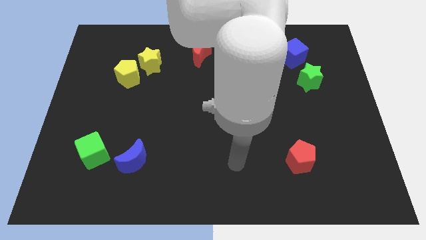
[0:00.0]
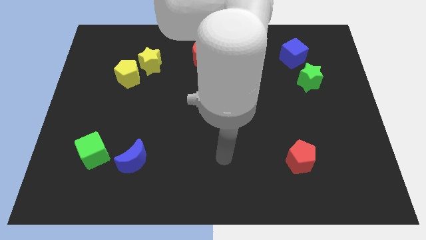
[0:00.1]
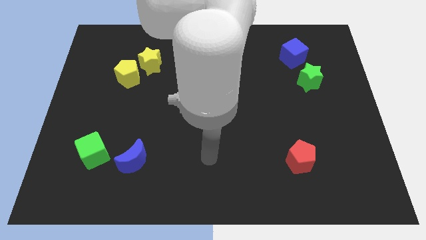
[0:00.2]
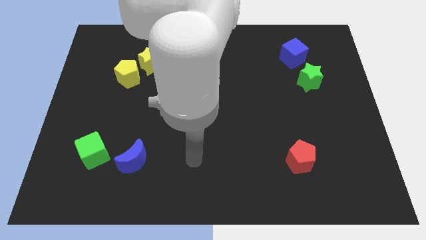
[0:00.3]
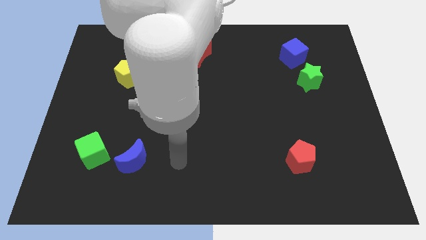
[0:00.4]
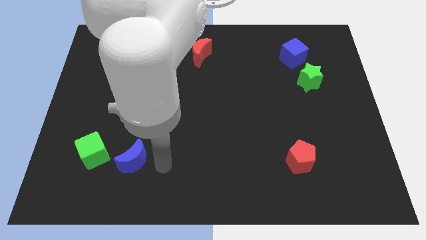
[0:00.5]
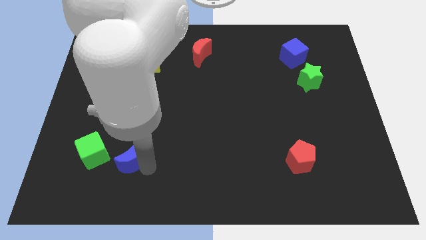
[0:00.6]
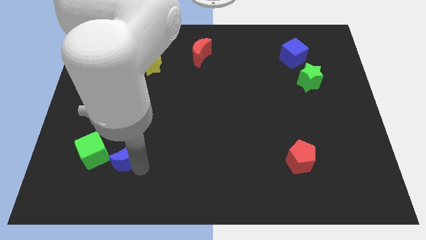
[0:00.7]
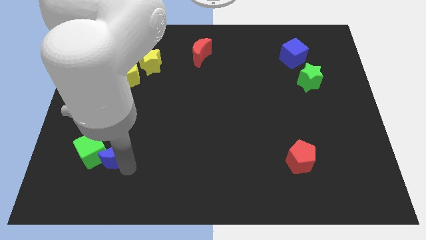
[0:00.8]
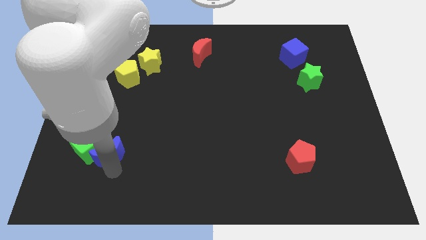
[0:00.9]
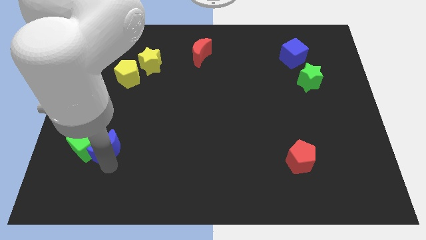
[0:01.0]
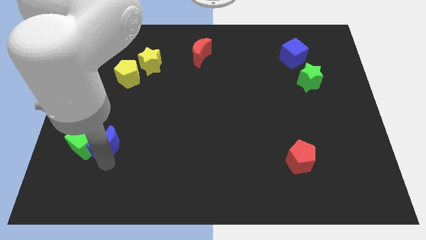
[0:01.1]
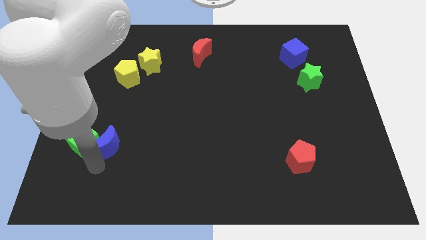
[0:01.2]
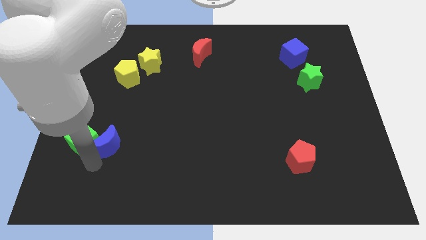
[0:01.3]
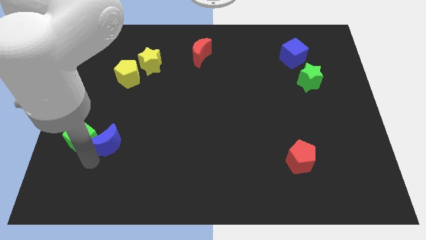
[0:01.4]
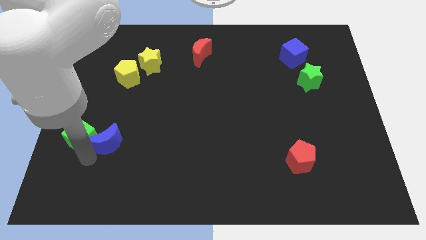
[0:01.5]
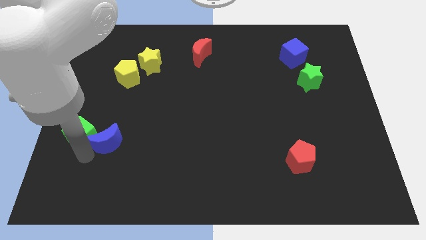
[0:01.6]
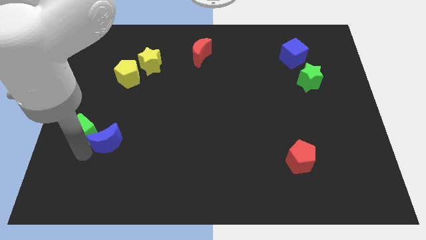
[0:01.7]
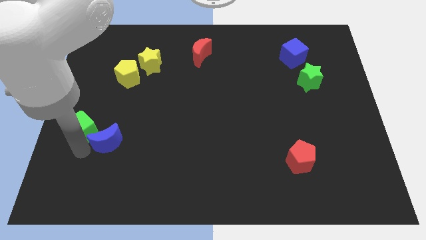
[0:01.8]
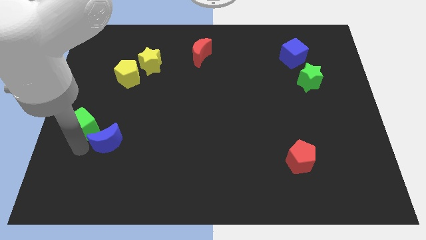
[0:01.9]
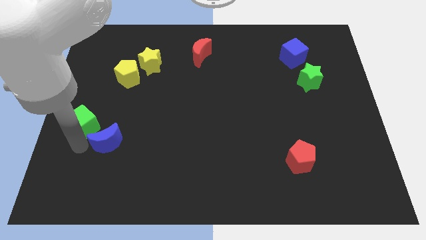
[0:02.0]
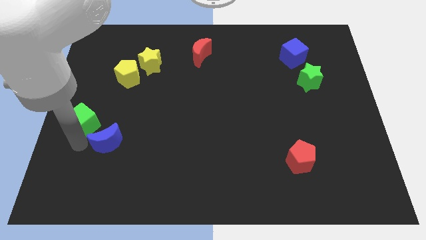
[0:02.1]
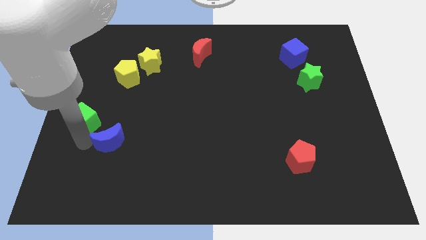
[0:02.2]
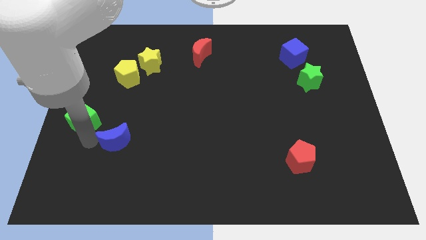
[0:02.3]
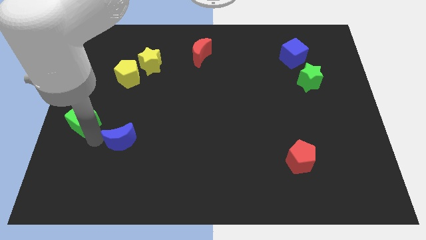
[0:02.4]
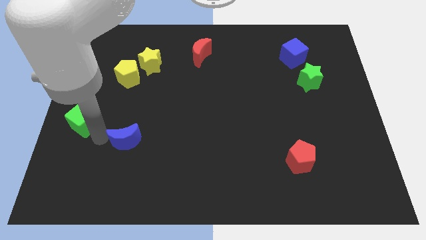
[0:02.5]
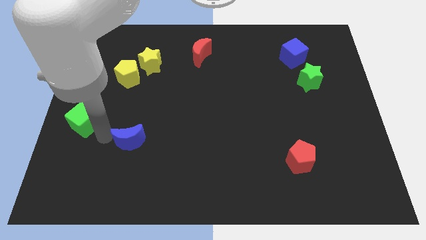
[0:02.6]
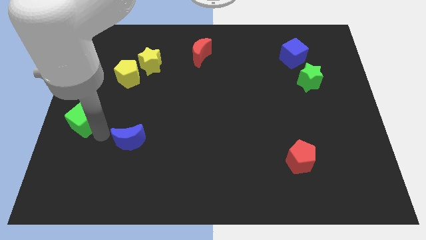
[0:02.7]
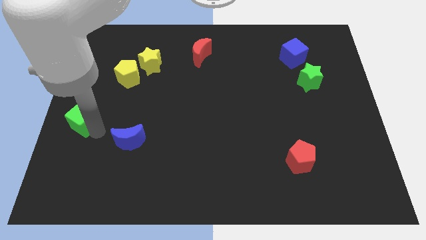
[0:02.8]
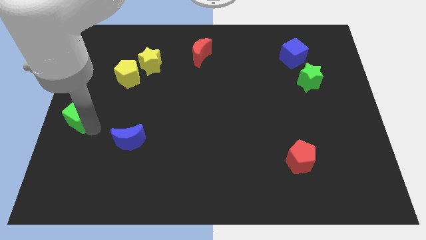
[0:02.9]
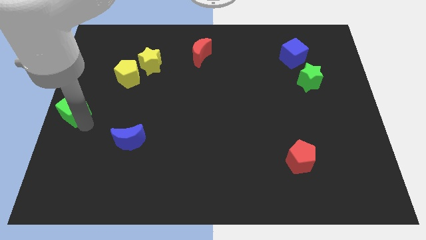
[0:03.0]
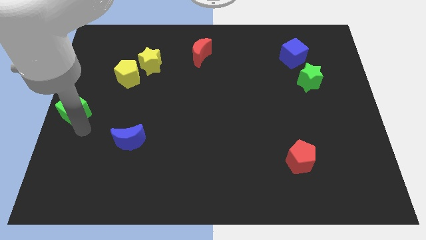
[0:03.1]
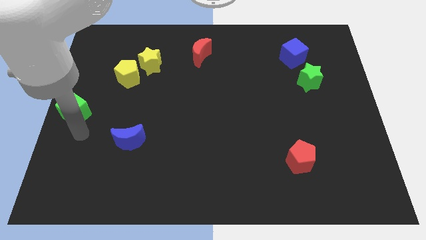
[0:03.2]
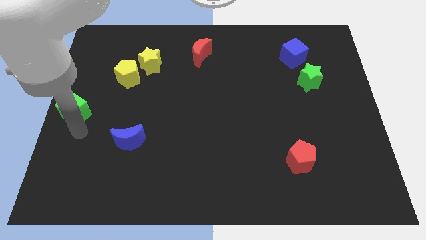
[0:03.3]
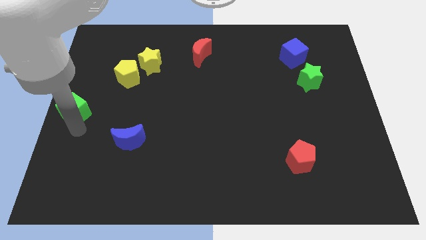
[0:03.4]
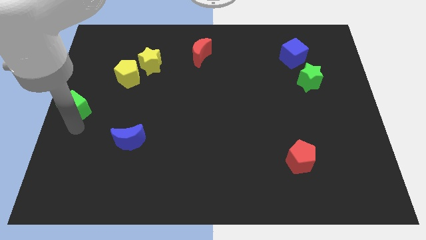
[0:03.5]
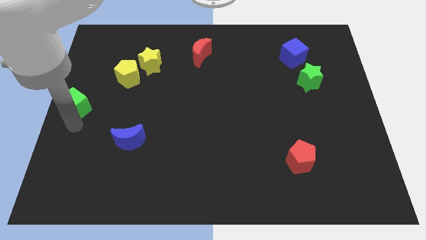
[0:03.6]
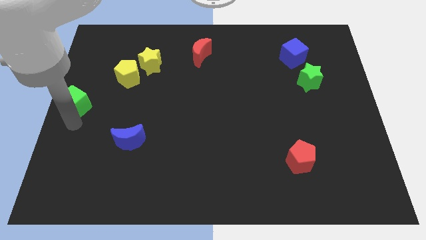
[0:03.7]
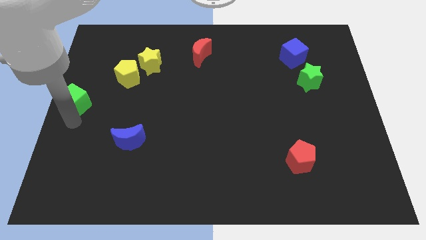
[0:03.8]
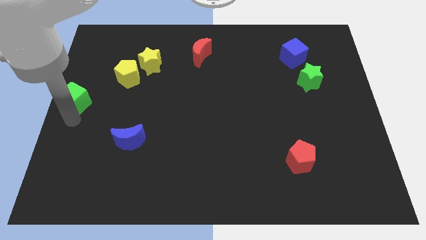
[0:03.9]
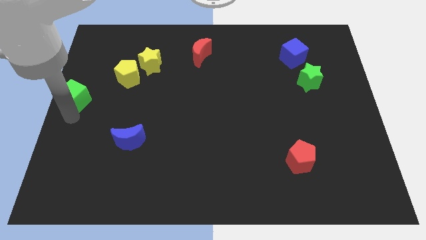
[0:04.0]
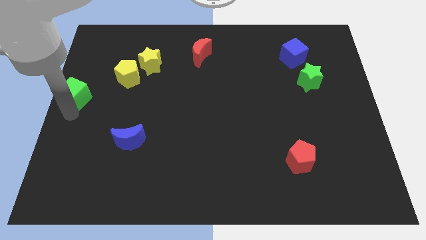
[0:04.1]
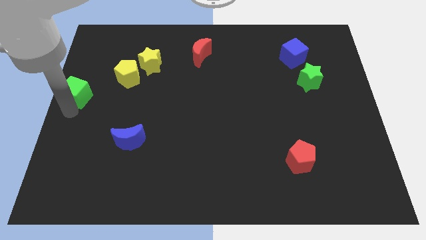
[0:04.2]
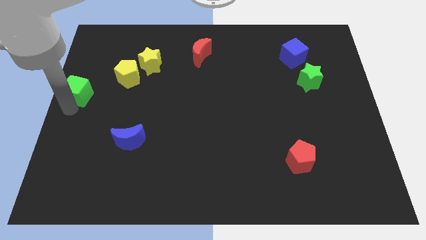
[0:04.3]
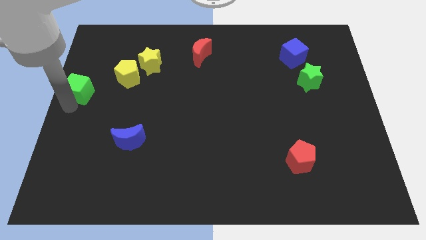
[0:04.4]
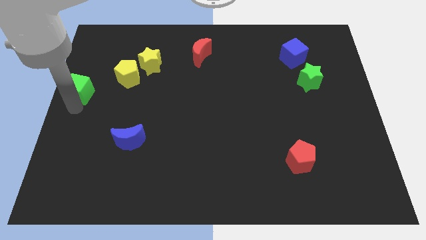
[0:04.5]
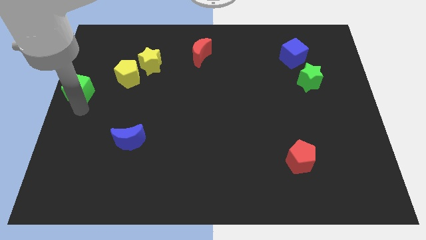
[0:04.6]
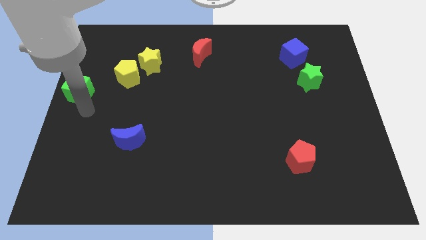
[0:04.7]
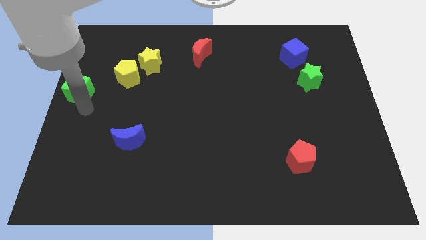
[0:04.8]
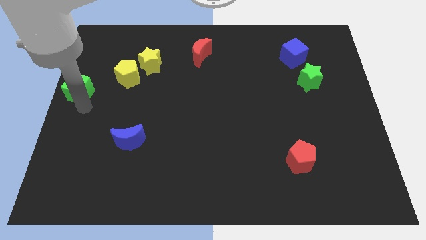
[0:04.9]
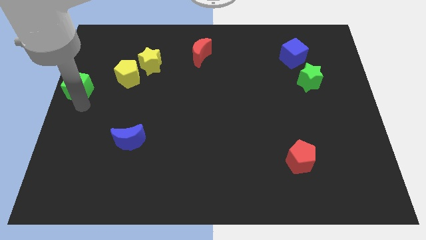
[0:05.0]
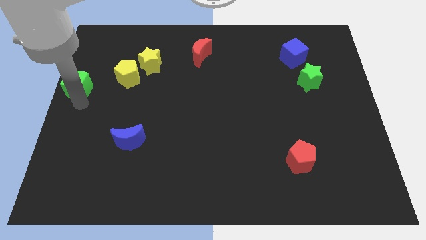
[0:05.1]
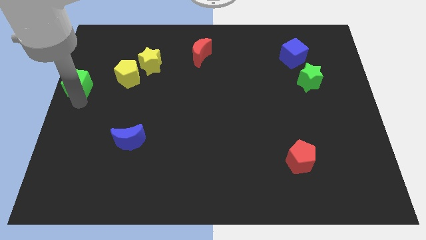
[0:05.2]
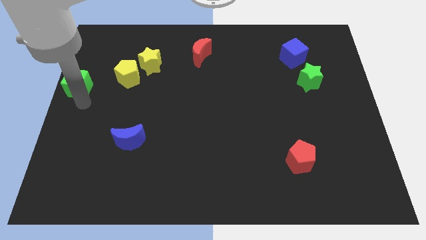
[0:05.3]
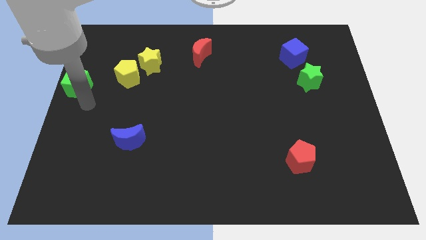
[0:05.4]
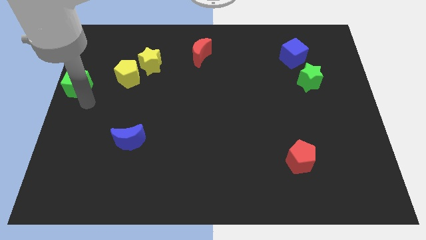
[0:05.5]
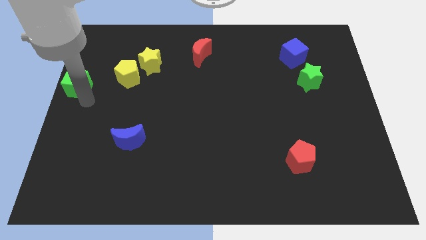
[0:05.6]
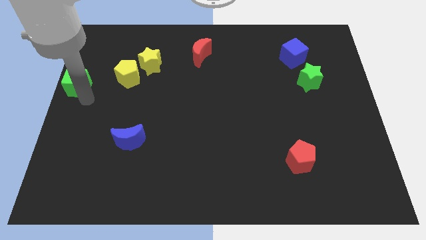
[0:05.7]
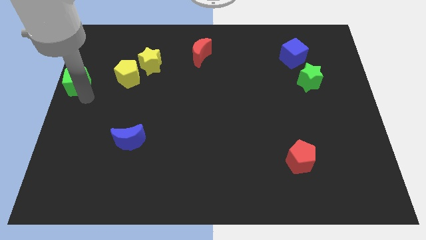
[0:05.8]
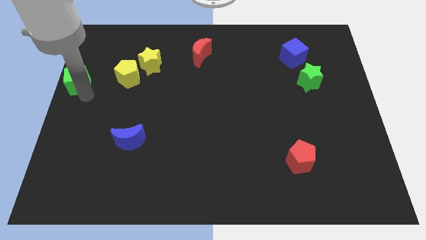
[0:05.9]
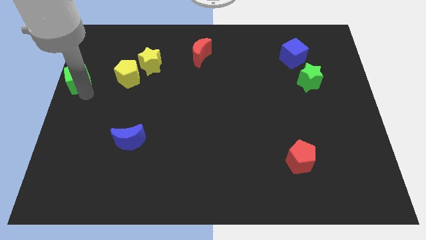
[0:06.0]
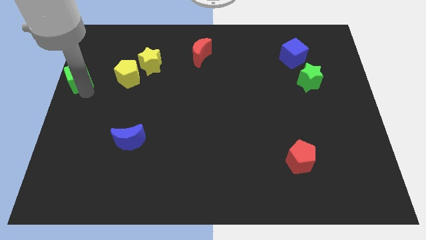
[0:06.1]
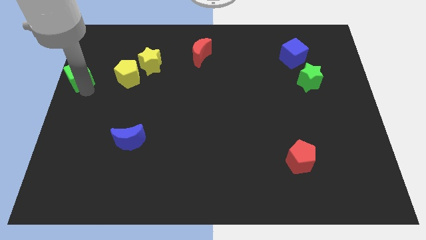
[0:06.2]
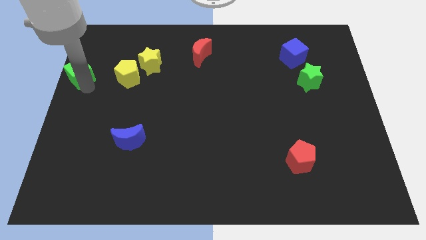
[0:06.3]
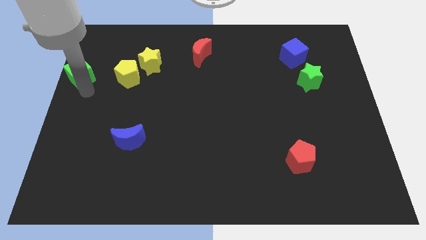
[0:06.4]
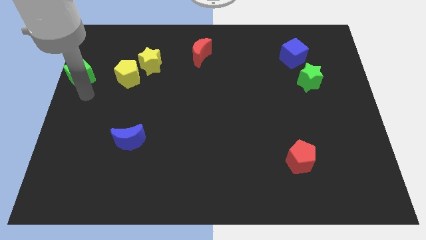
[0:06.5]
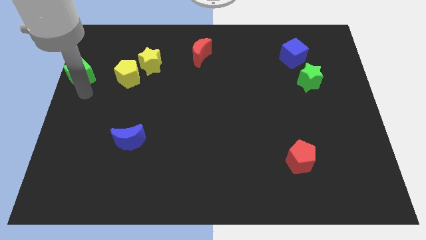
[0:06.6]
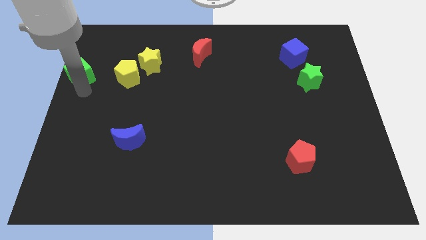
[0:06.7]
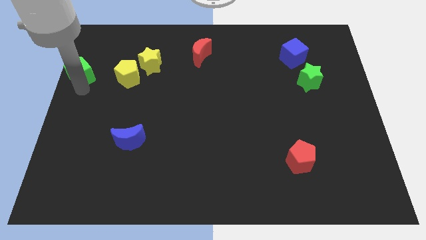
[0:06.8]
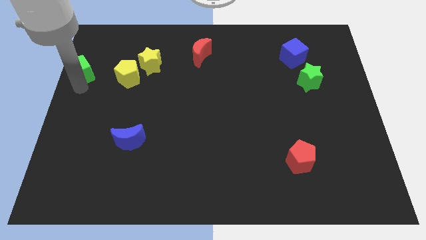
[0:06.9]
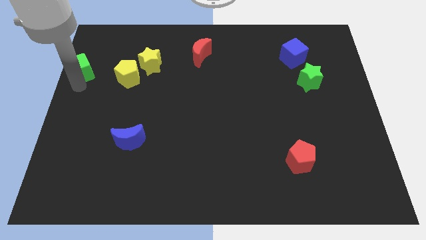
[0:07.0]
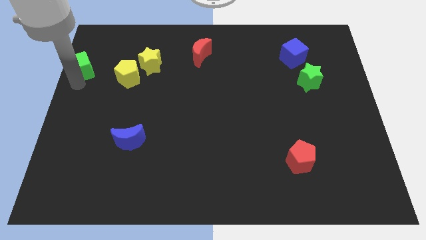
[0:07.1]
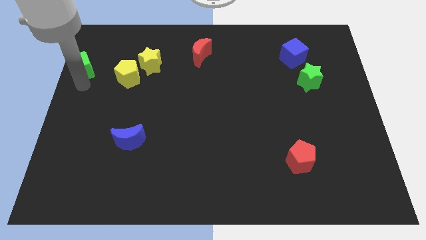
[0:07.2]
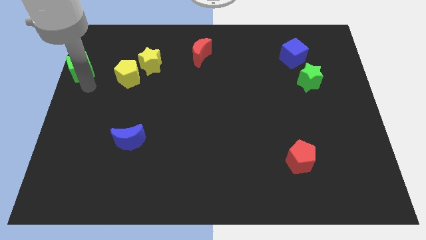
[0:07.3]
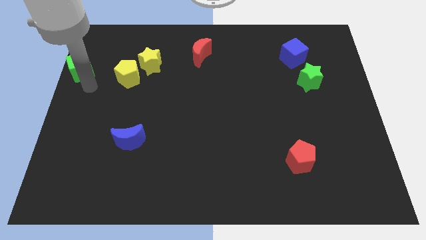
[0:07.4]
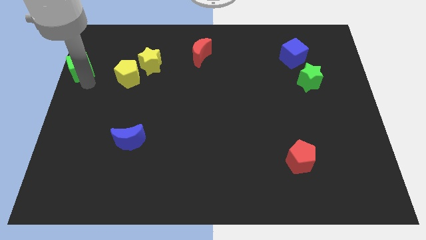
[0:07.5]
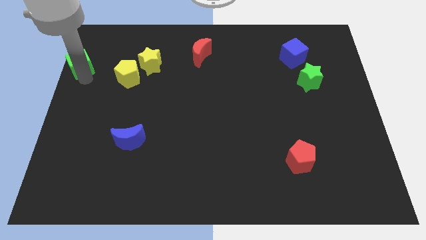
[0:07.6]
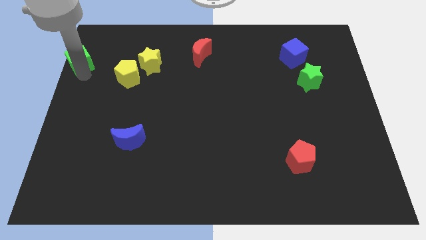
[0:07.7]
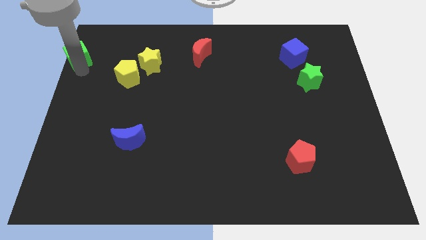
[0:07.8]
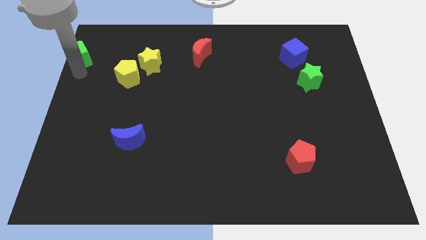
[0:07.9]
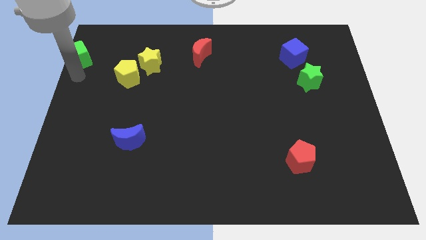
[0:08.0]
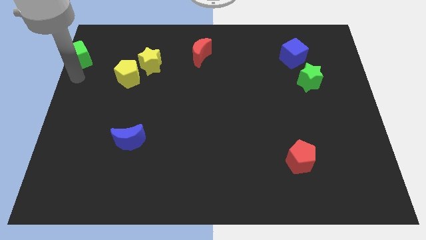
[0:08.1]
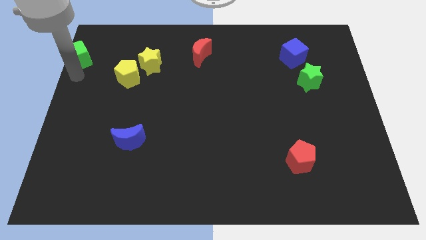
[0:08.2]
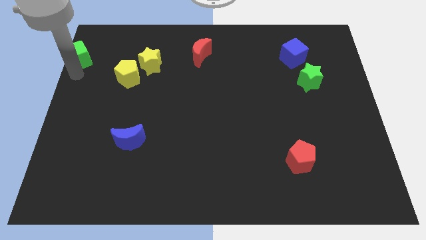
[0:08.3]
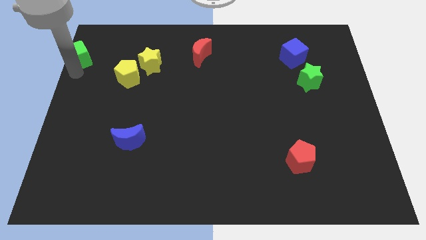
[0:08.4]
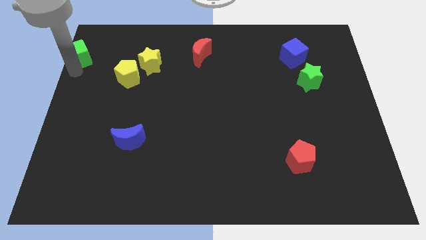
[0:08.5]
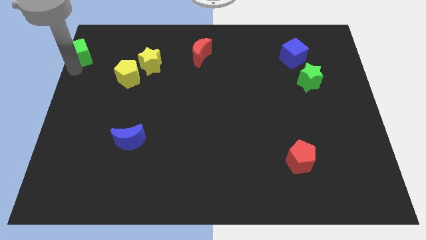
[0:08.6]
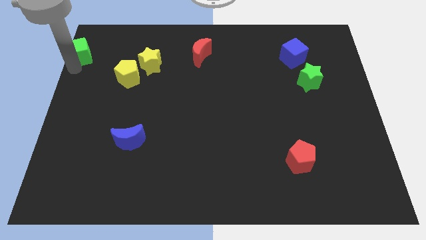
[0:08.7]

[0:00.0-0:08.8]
move the green cube to the top left of the board
